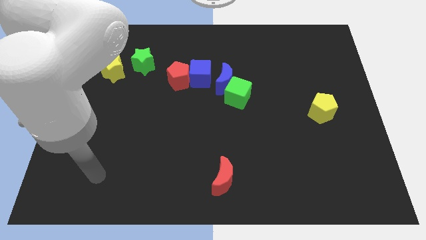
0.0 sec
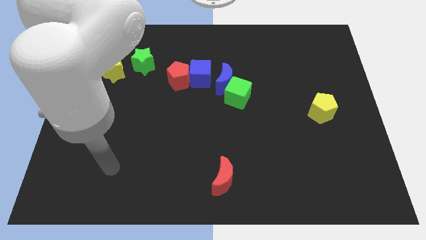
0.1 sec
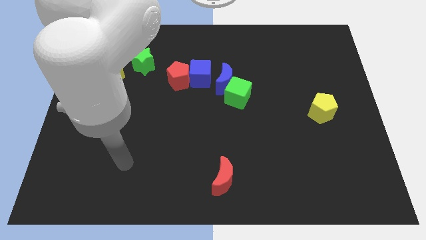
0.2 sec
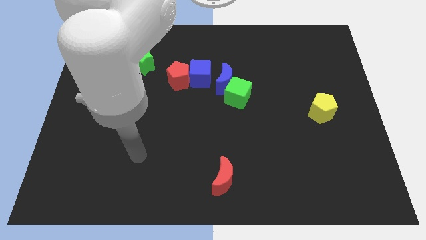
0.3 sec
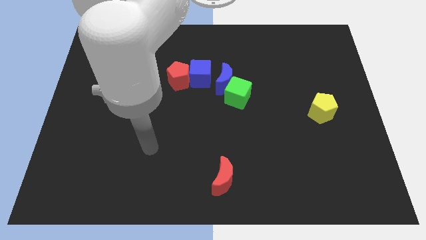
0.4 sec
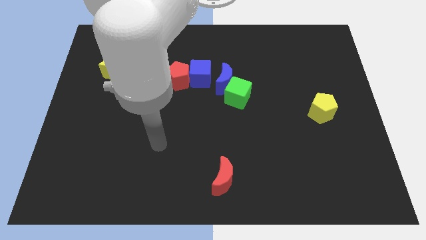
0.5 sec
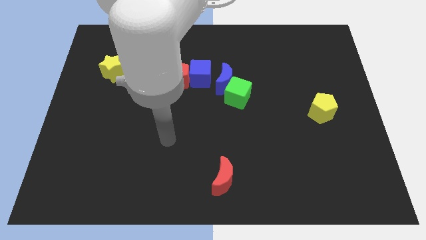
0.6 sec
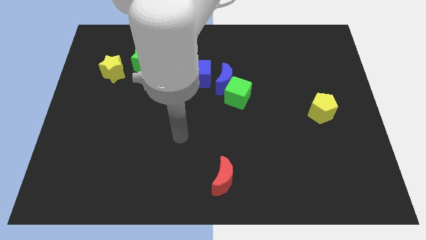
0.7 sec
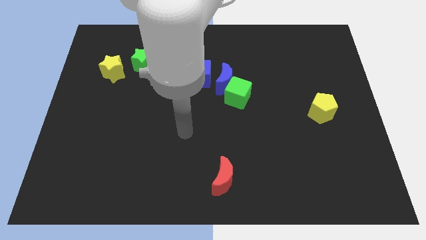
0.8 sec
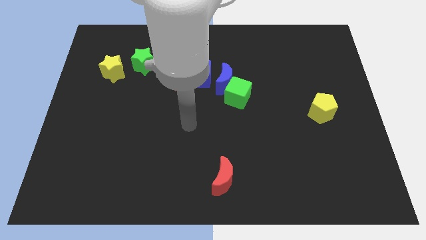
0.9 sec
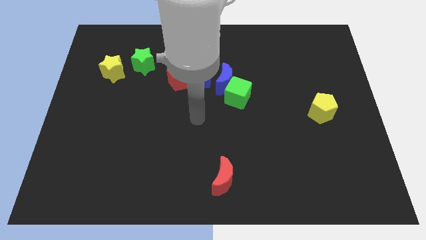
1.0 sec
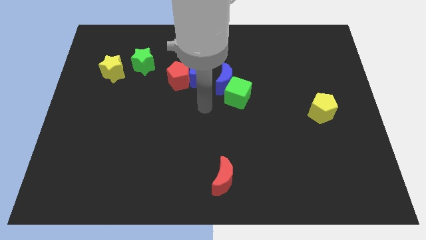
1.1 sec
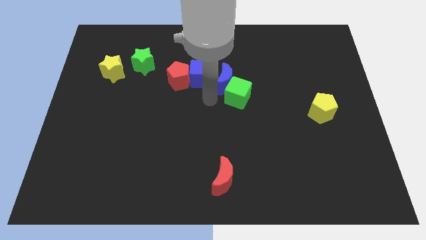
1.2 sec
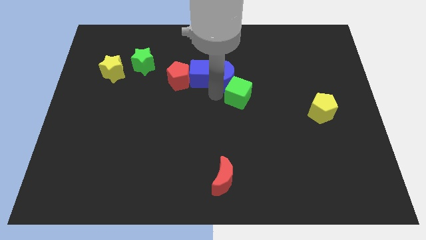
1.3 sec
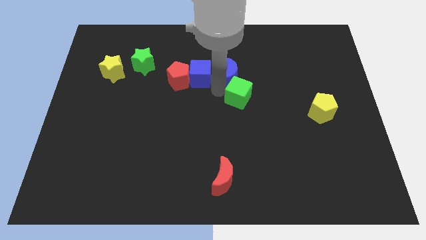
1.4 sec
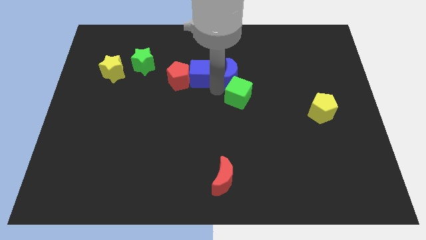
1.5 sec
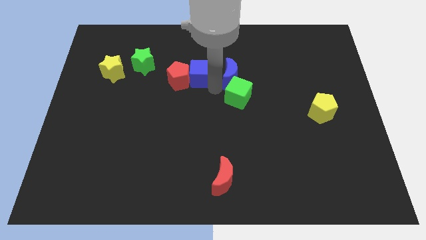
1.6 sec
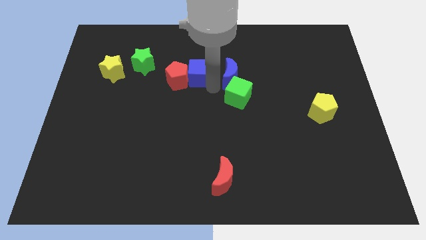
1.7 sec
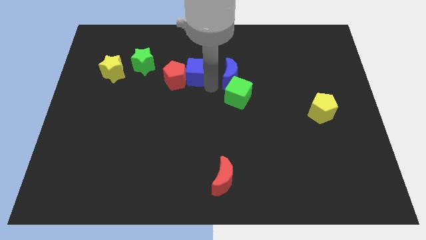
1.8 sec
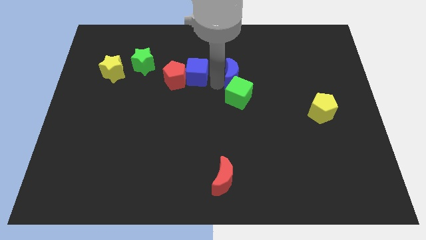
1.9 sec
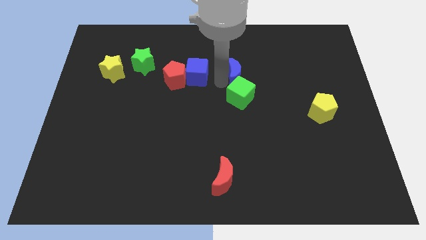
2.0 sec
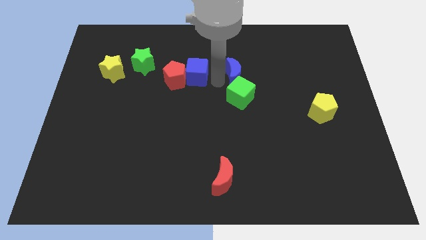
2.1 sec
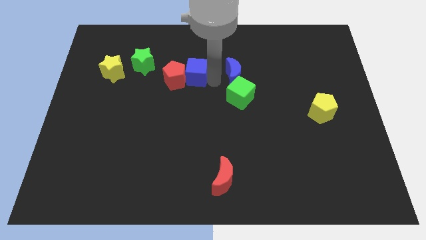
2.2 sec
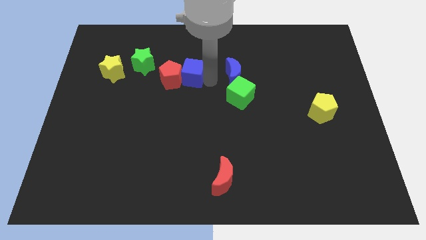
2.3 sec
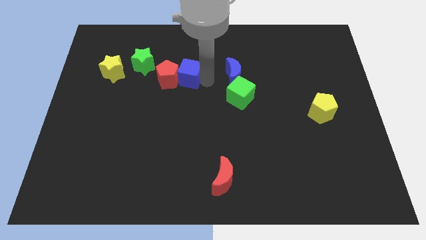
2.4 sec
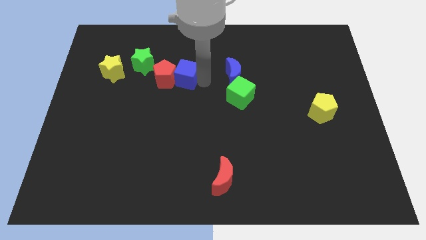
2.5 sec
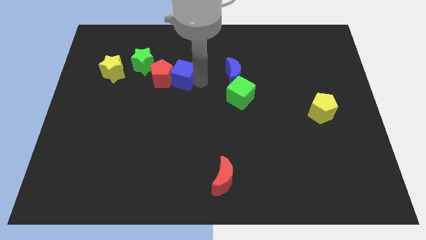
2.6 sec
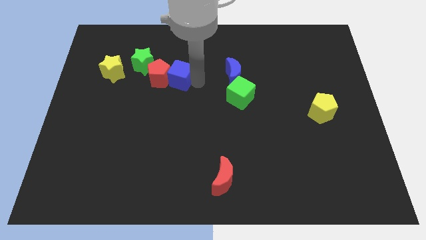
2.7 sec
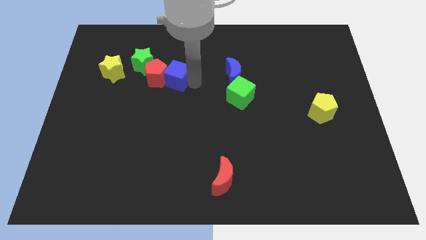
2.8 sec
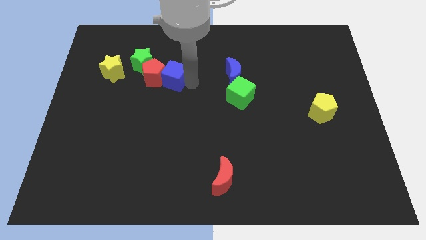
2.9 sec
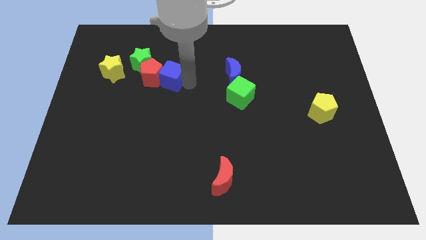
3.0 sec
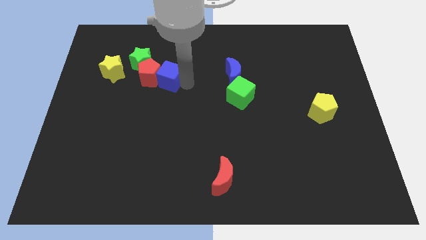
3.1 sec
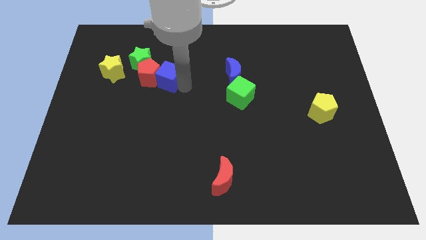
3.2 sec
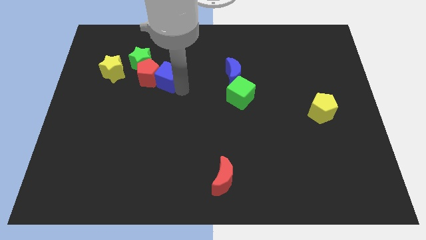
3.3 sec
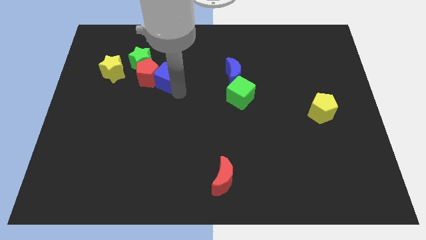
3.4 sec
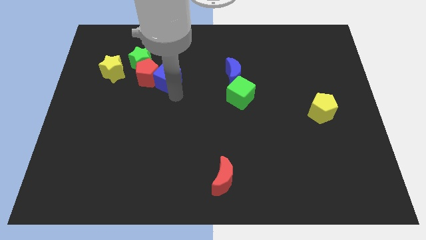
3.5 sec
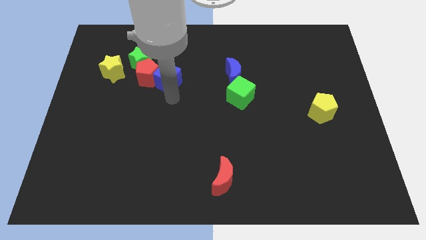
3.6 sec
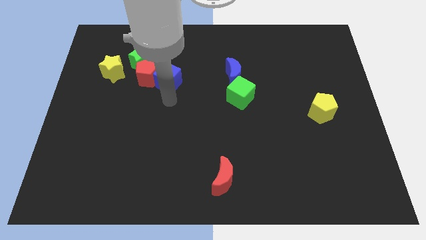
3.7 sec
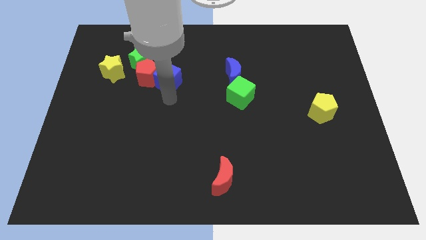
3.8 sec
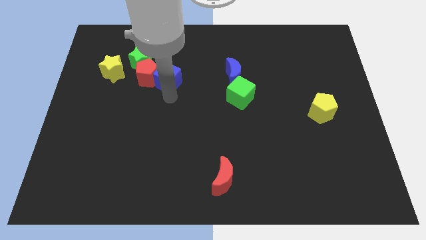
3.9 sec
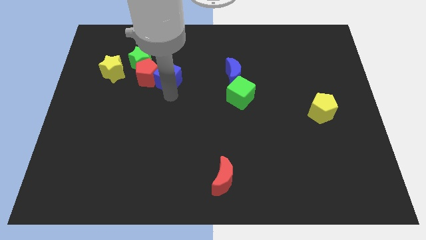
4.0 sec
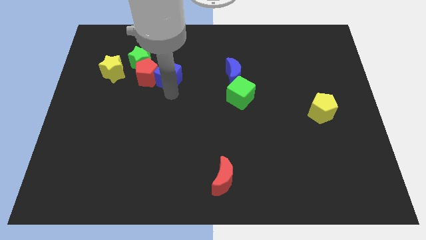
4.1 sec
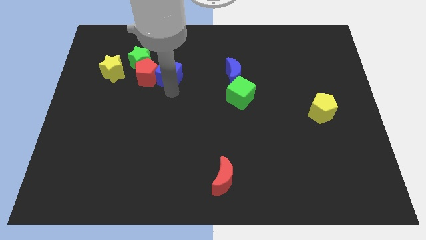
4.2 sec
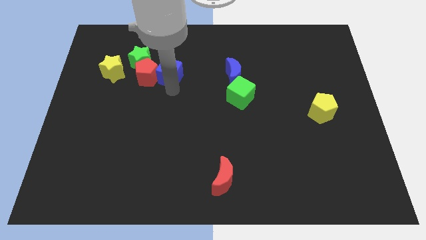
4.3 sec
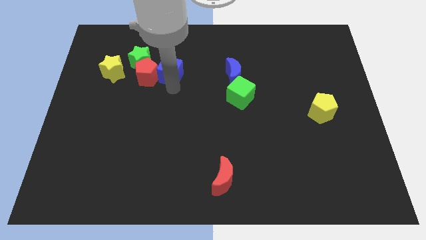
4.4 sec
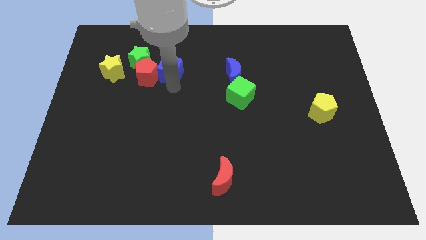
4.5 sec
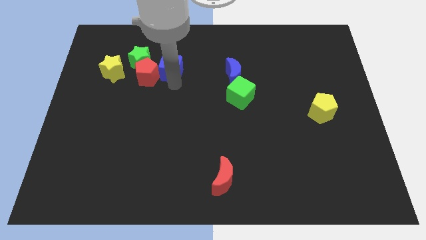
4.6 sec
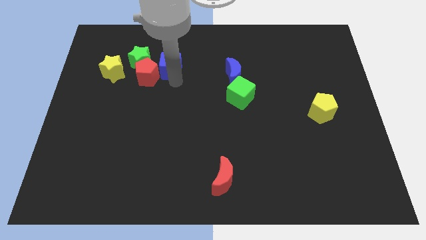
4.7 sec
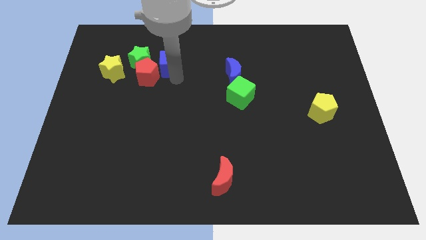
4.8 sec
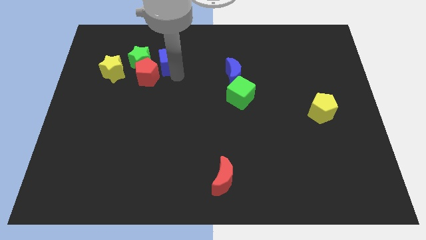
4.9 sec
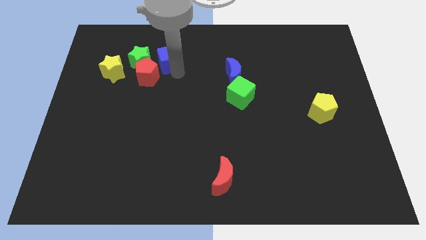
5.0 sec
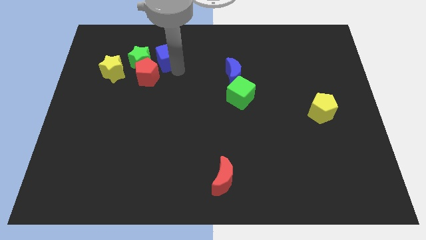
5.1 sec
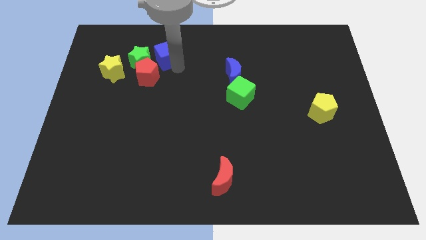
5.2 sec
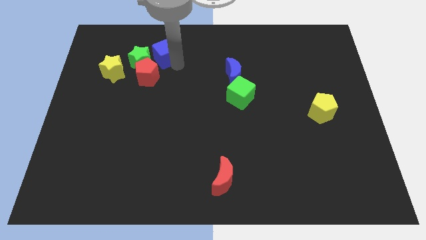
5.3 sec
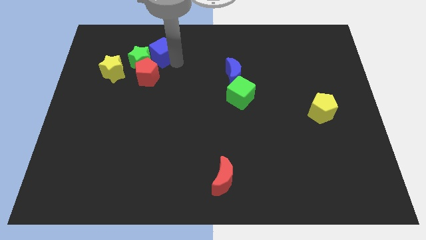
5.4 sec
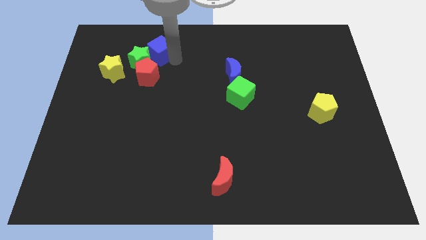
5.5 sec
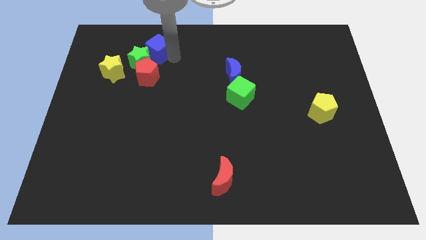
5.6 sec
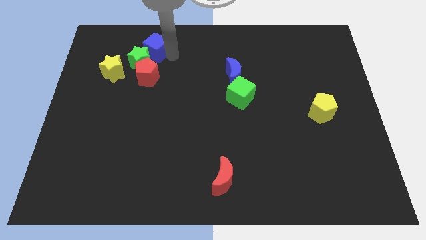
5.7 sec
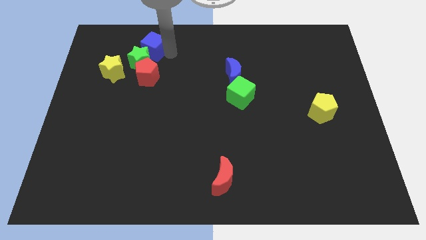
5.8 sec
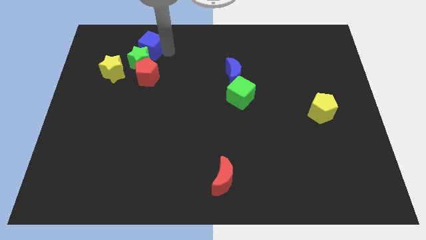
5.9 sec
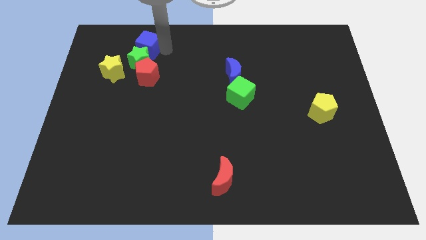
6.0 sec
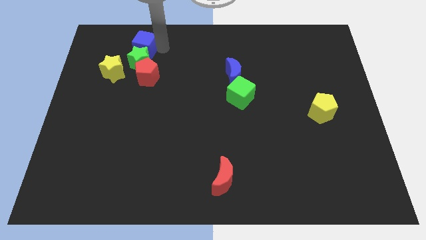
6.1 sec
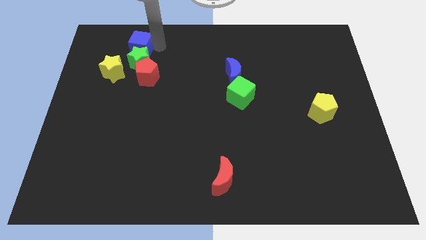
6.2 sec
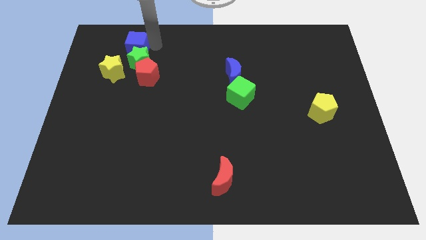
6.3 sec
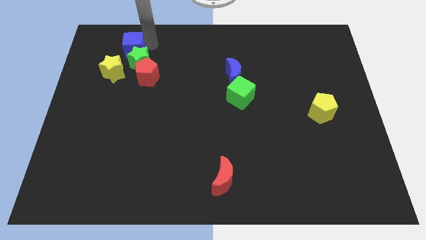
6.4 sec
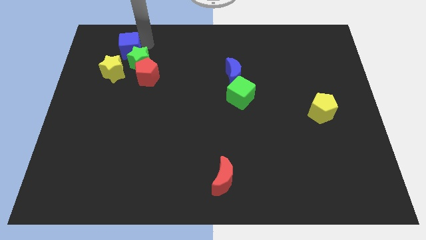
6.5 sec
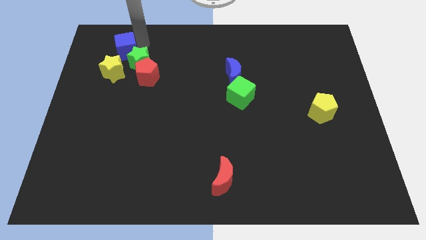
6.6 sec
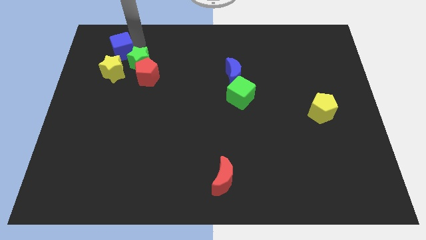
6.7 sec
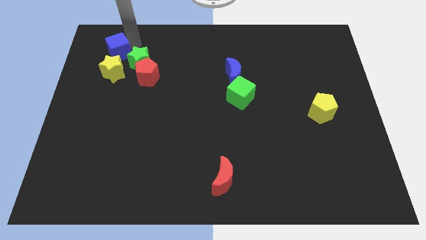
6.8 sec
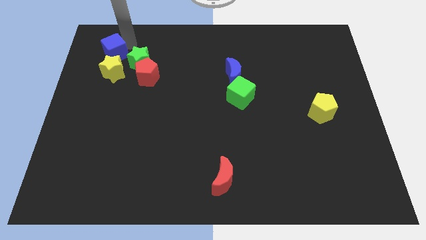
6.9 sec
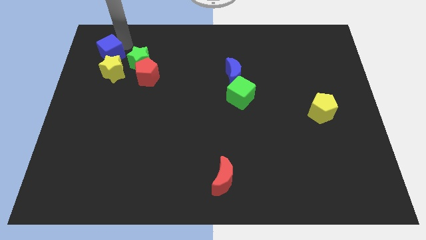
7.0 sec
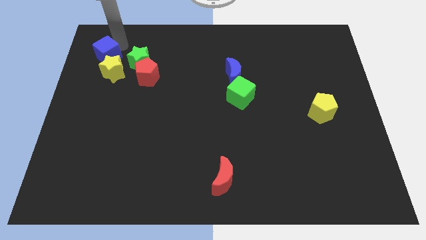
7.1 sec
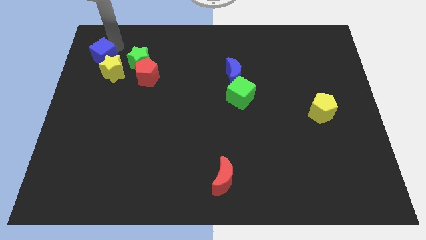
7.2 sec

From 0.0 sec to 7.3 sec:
move the blue cube next to the yellow star
